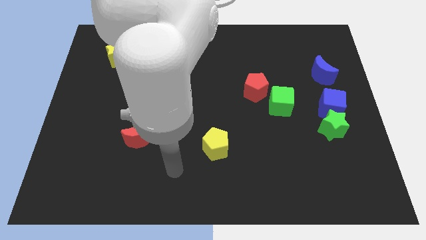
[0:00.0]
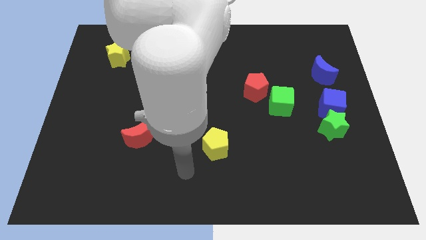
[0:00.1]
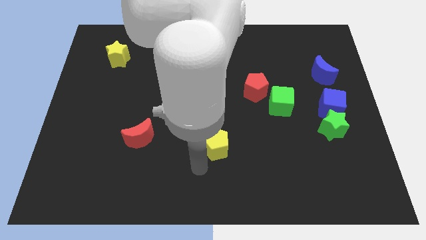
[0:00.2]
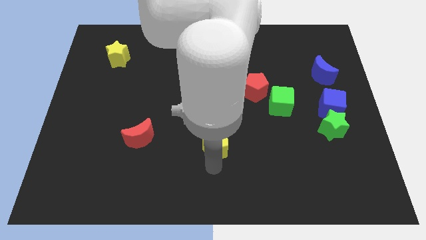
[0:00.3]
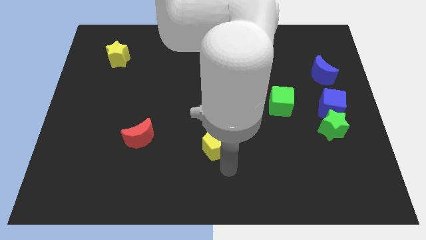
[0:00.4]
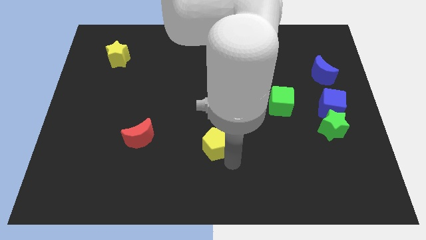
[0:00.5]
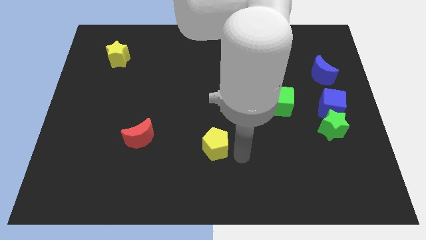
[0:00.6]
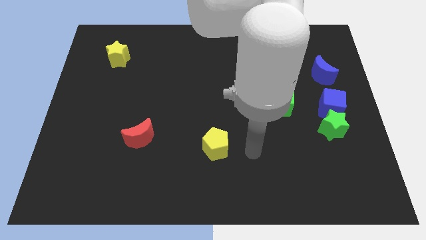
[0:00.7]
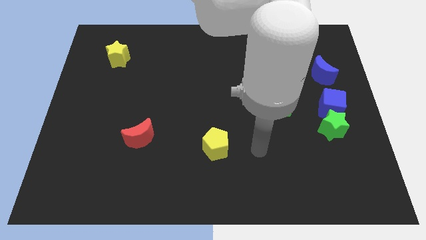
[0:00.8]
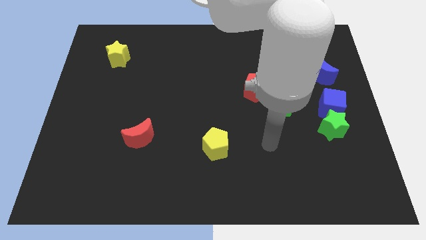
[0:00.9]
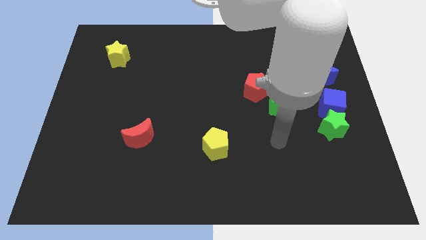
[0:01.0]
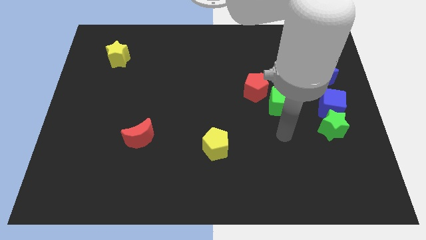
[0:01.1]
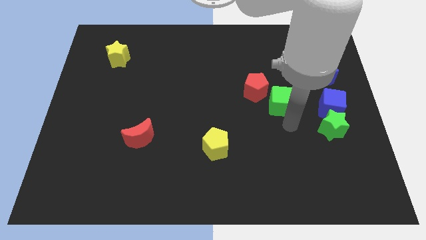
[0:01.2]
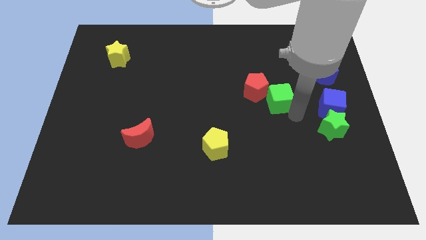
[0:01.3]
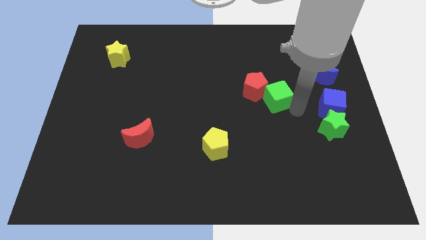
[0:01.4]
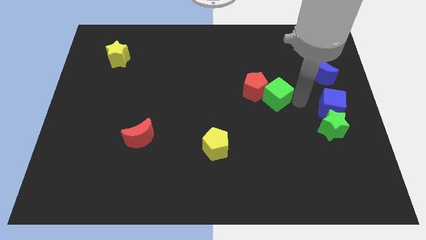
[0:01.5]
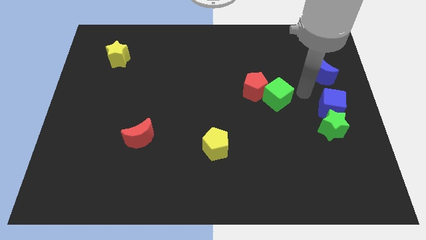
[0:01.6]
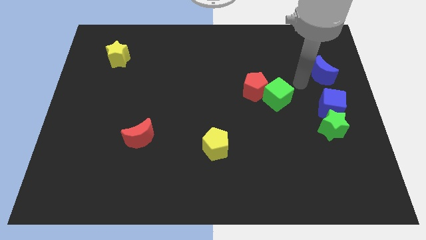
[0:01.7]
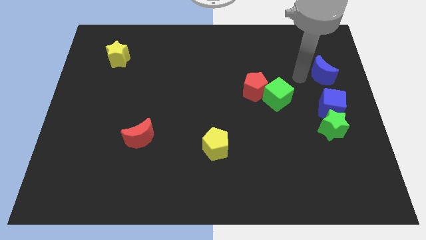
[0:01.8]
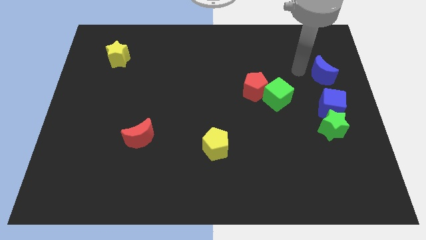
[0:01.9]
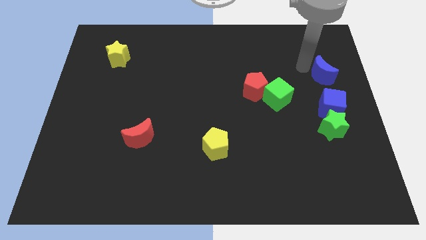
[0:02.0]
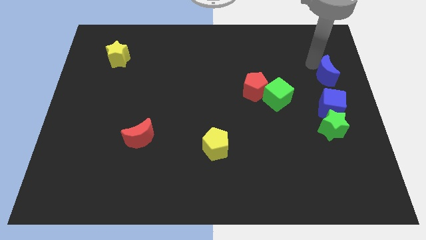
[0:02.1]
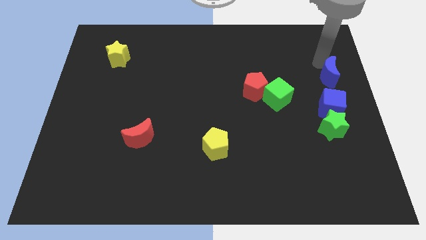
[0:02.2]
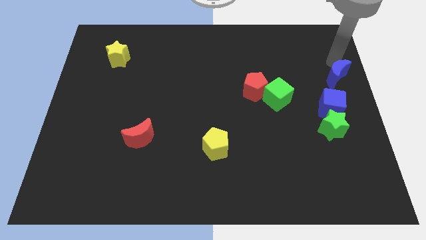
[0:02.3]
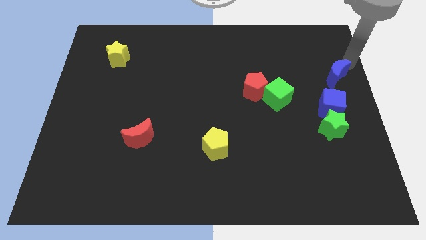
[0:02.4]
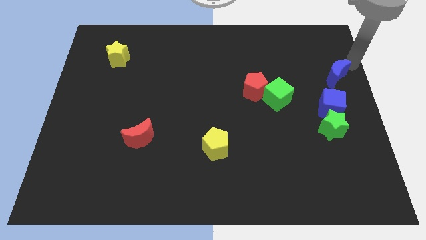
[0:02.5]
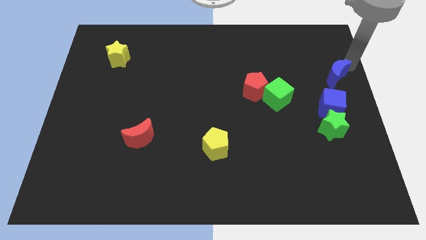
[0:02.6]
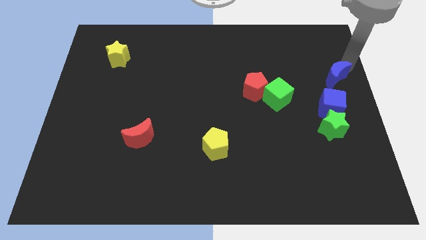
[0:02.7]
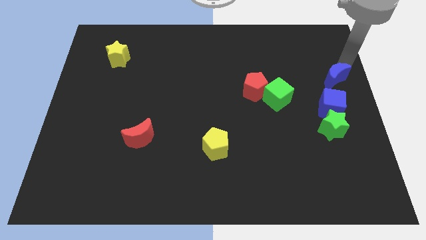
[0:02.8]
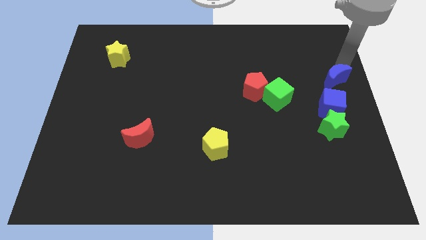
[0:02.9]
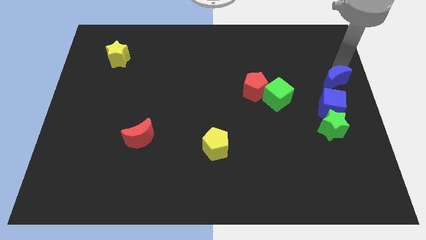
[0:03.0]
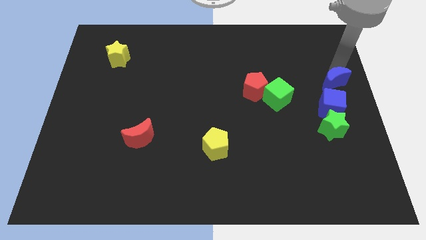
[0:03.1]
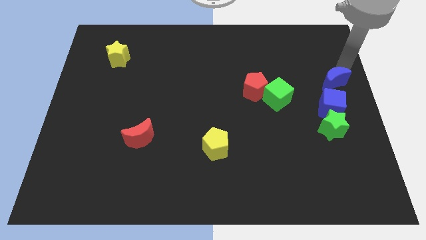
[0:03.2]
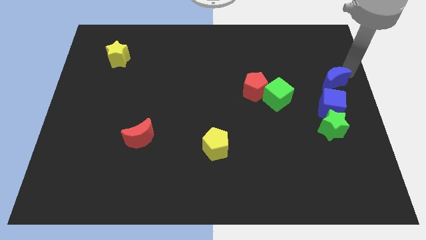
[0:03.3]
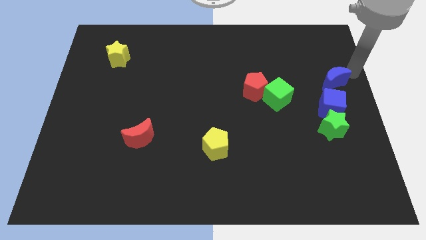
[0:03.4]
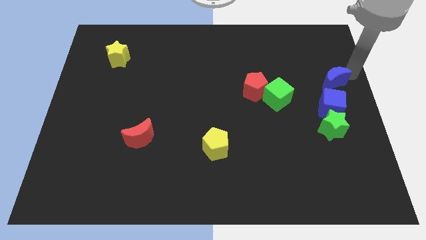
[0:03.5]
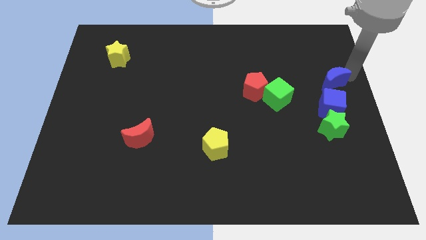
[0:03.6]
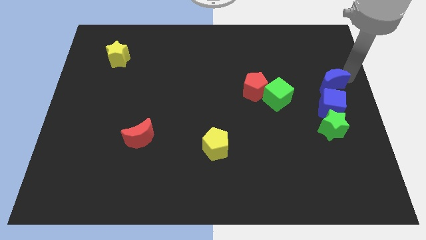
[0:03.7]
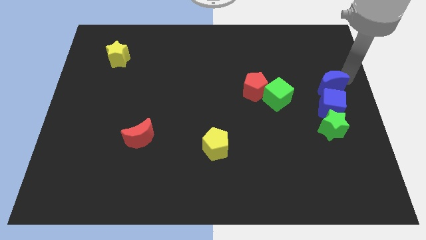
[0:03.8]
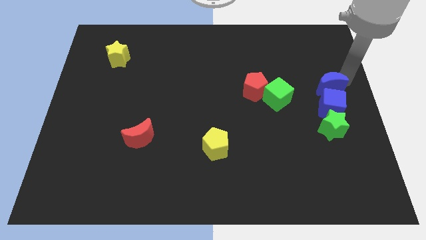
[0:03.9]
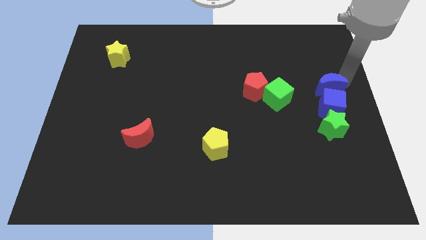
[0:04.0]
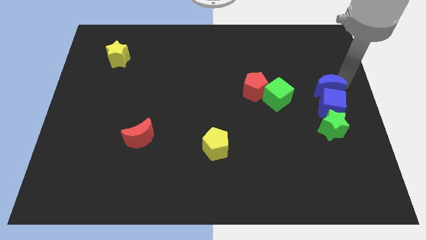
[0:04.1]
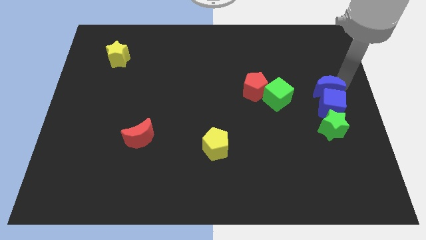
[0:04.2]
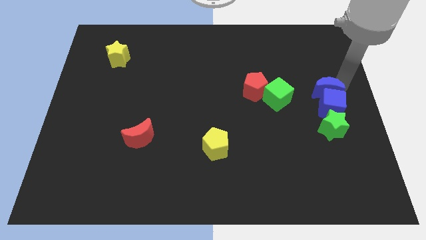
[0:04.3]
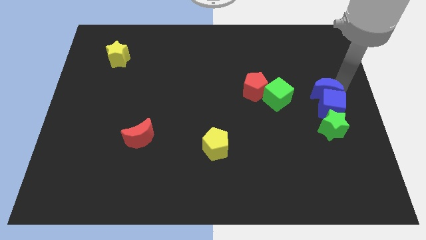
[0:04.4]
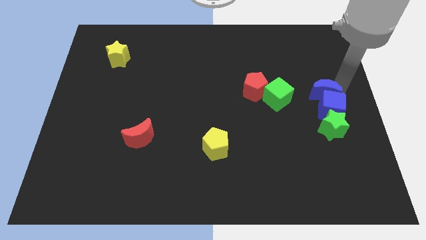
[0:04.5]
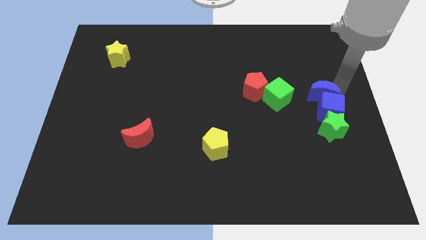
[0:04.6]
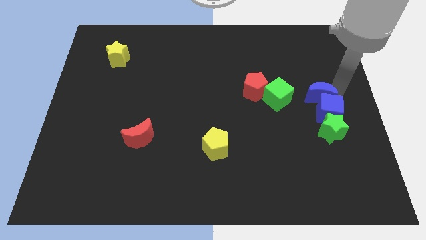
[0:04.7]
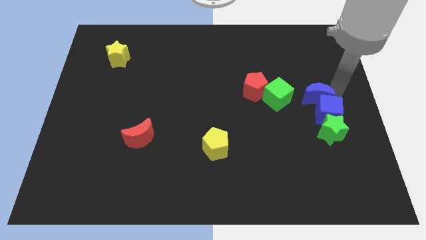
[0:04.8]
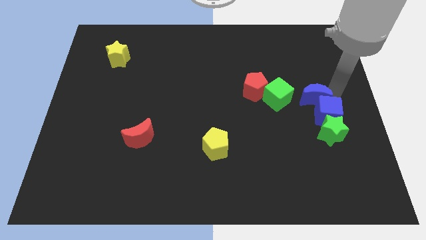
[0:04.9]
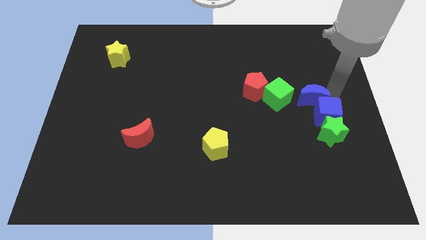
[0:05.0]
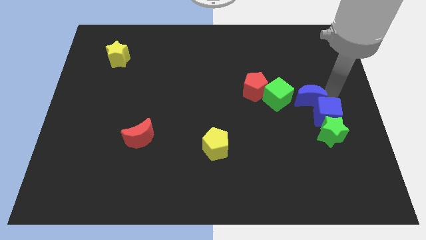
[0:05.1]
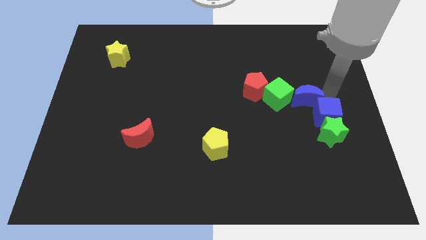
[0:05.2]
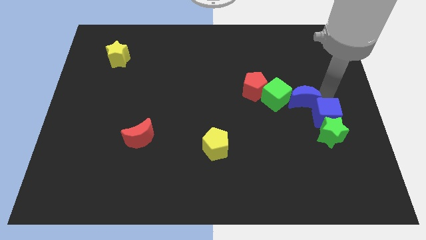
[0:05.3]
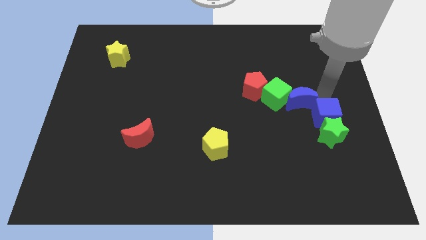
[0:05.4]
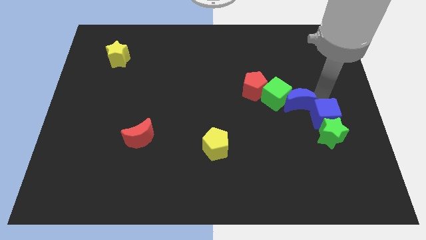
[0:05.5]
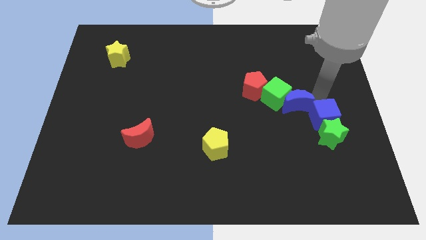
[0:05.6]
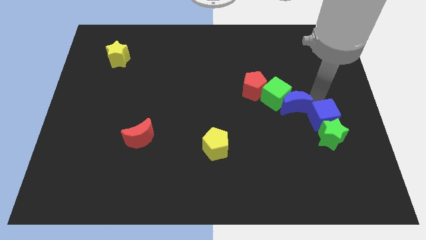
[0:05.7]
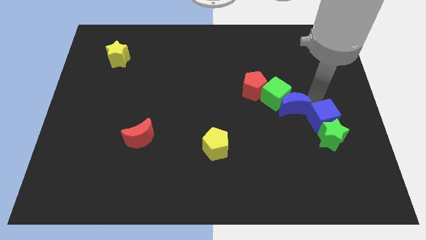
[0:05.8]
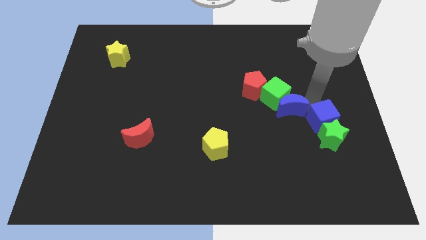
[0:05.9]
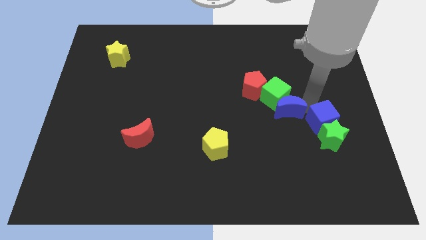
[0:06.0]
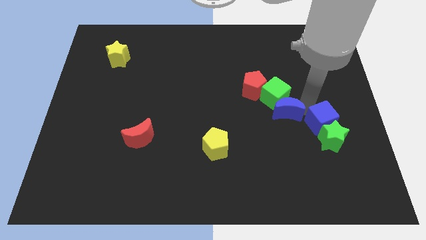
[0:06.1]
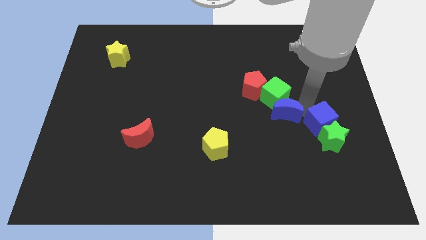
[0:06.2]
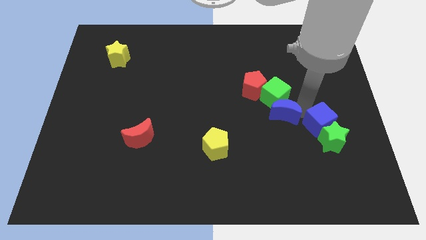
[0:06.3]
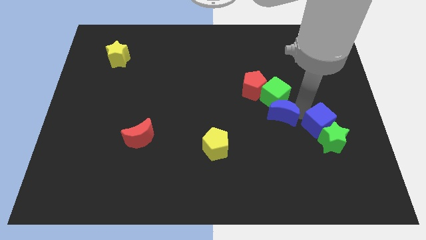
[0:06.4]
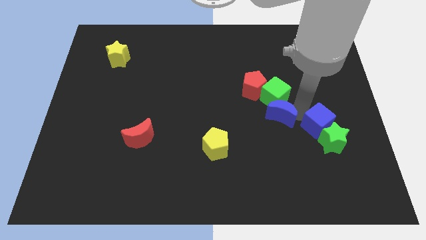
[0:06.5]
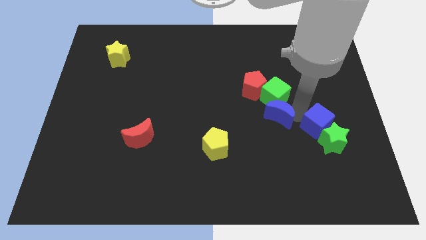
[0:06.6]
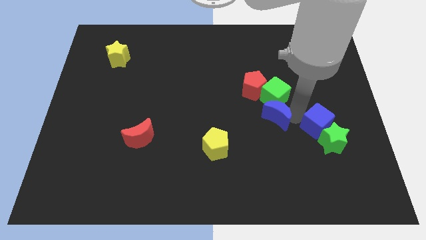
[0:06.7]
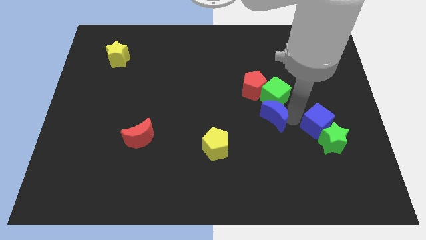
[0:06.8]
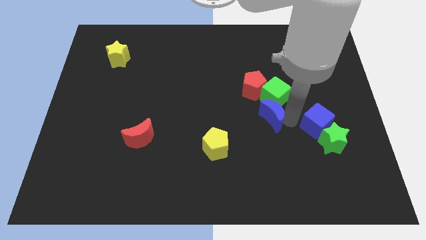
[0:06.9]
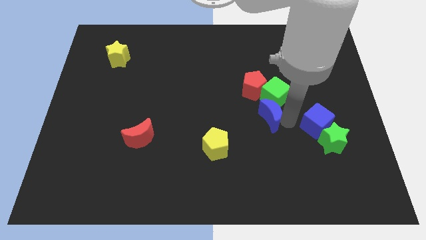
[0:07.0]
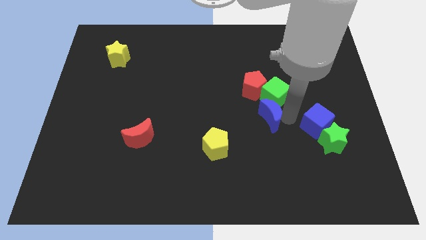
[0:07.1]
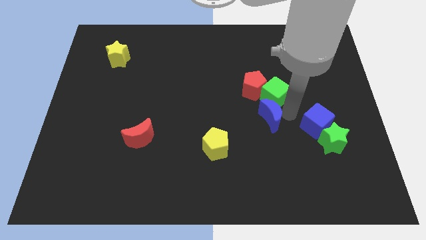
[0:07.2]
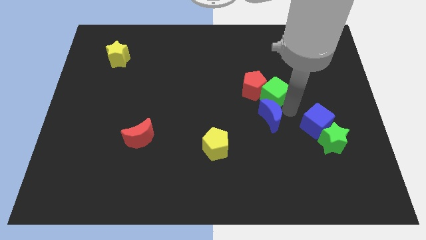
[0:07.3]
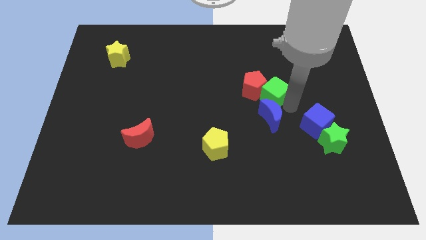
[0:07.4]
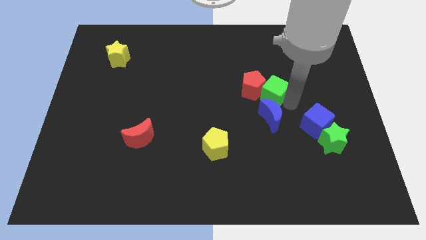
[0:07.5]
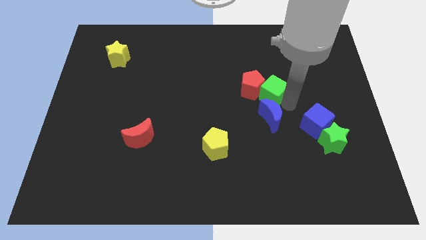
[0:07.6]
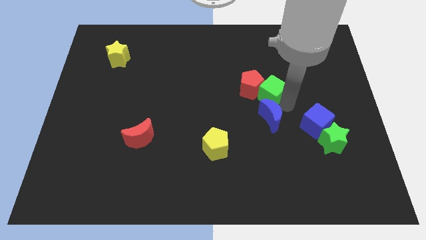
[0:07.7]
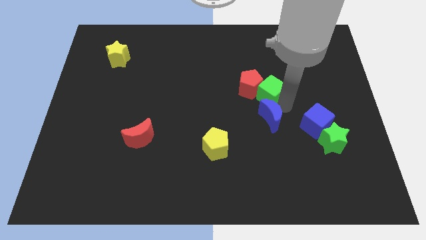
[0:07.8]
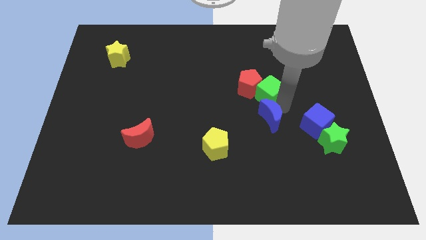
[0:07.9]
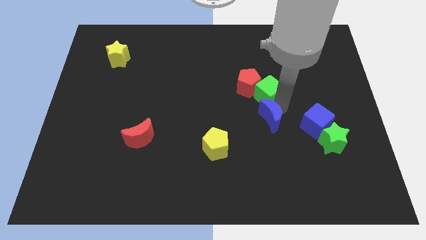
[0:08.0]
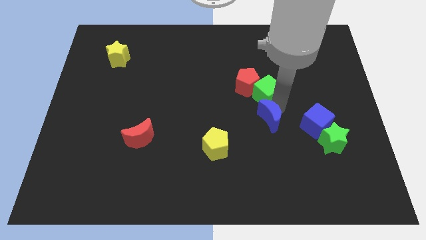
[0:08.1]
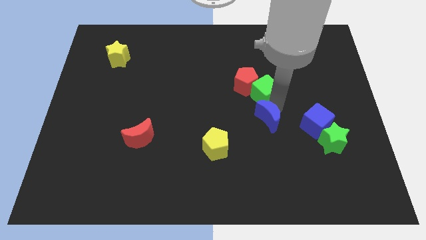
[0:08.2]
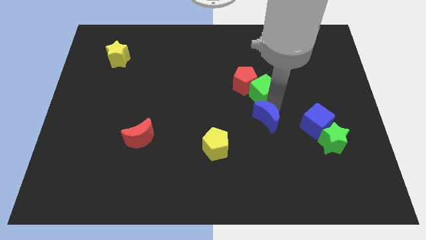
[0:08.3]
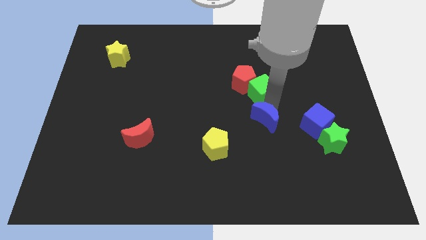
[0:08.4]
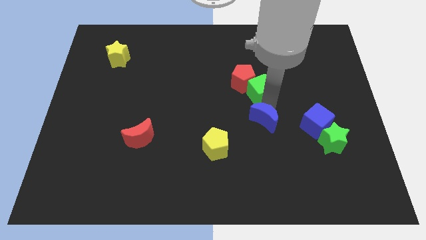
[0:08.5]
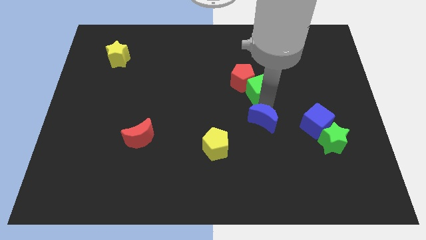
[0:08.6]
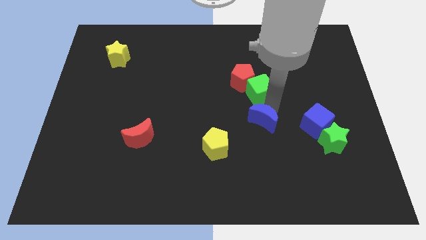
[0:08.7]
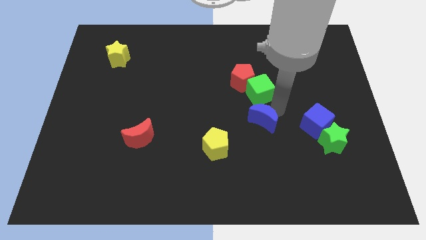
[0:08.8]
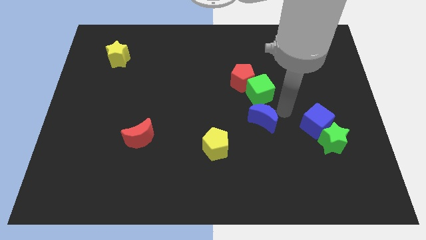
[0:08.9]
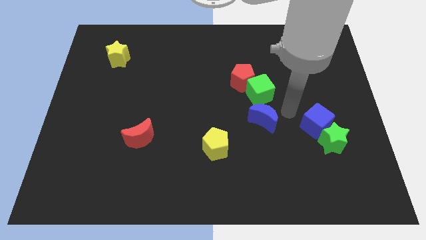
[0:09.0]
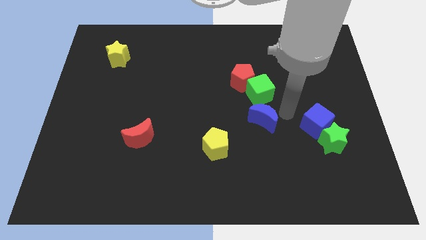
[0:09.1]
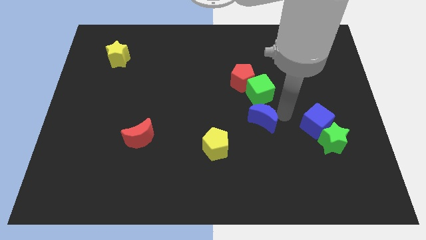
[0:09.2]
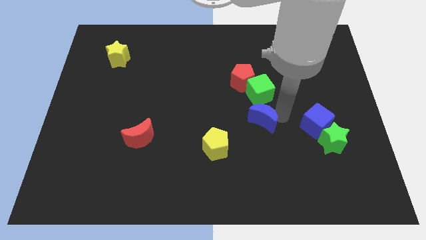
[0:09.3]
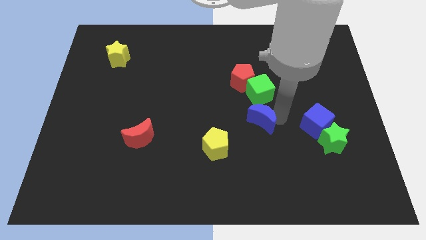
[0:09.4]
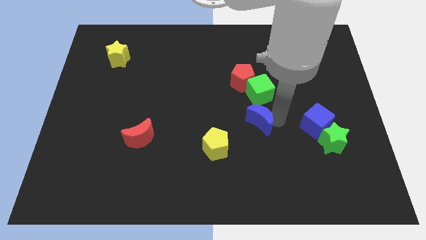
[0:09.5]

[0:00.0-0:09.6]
slide the blue moon diagonally up and to the right of the yellow pentagon
